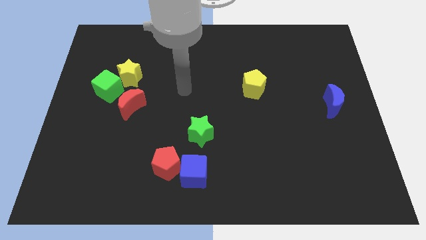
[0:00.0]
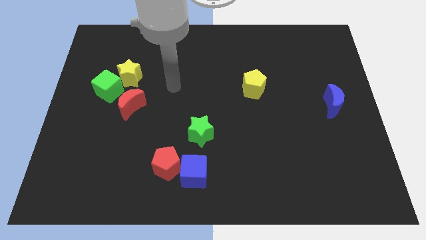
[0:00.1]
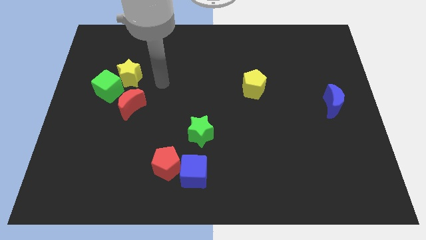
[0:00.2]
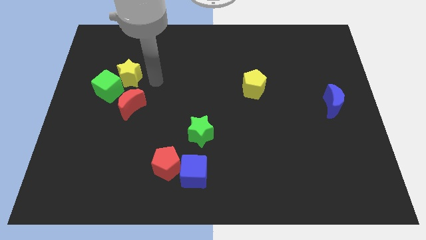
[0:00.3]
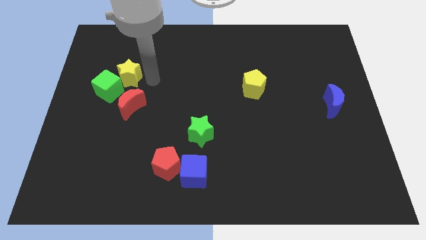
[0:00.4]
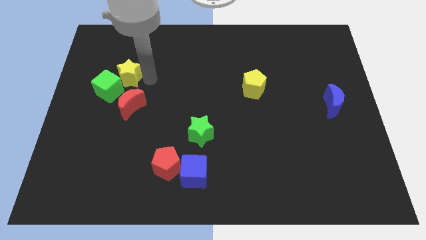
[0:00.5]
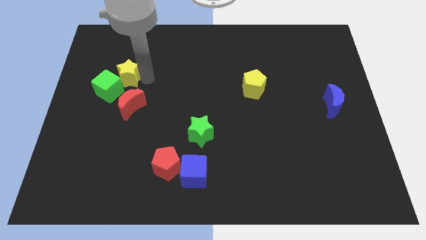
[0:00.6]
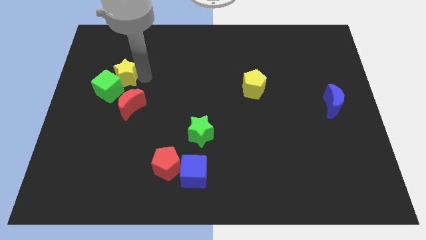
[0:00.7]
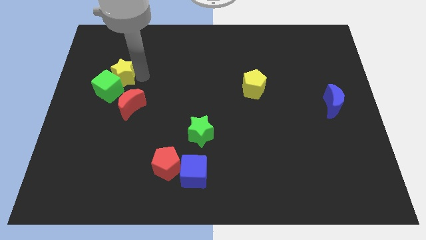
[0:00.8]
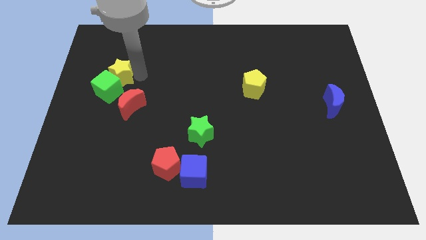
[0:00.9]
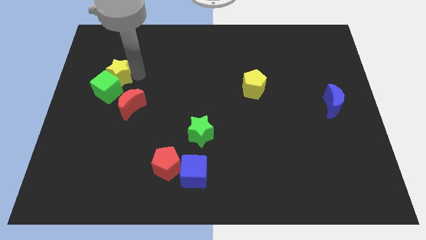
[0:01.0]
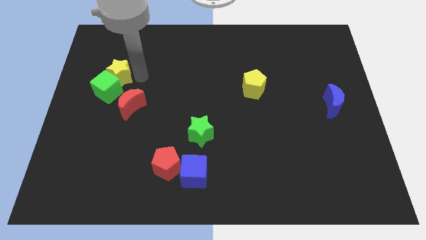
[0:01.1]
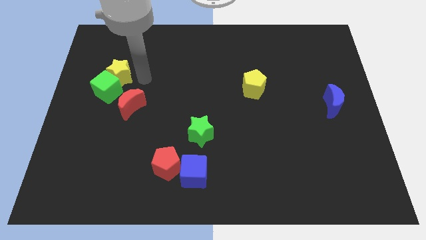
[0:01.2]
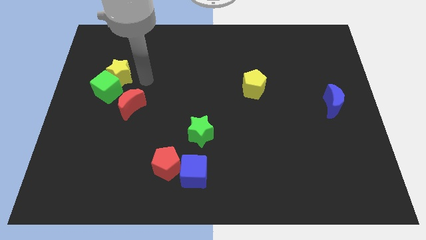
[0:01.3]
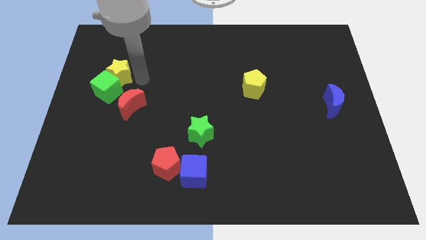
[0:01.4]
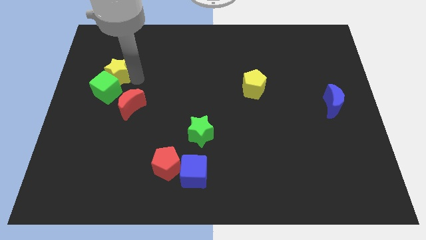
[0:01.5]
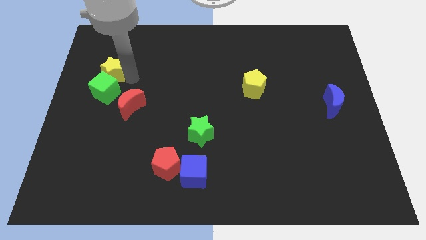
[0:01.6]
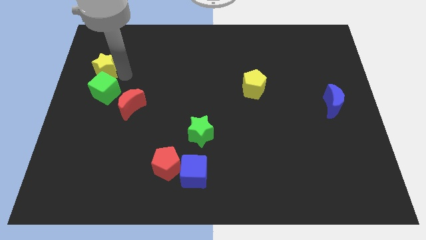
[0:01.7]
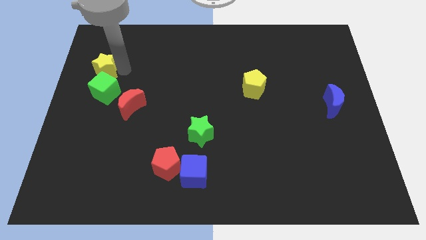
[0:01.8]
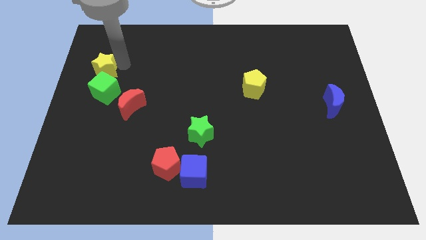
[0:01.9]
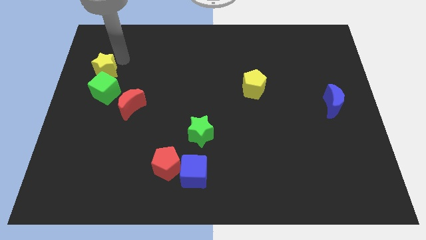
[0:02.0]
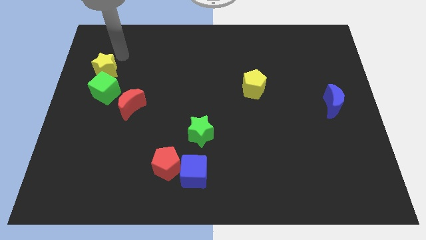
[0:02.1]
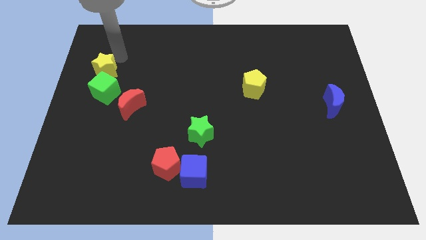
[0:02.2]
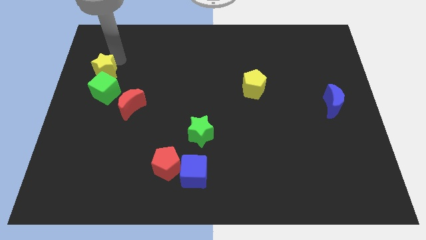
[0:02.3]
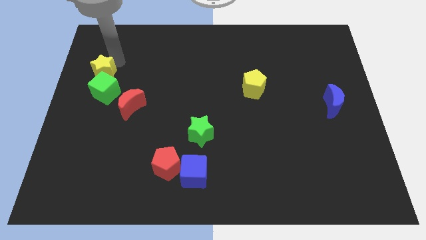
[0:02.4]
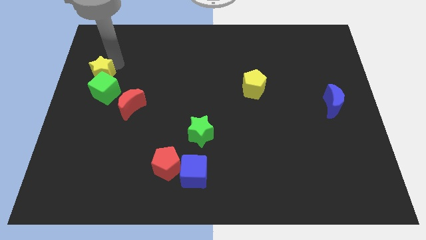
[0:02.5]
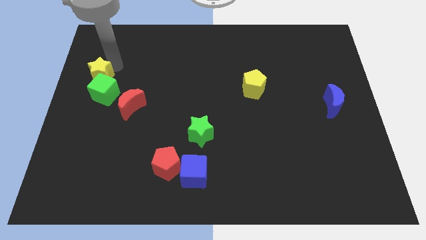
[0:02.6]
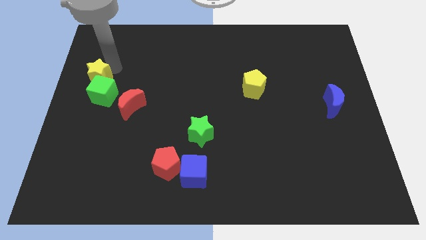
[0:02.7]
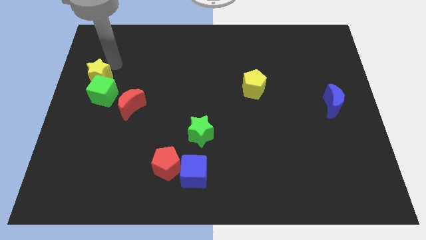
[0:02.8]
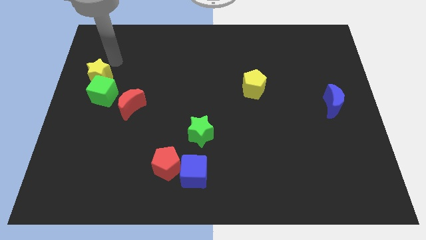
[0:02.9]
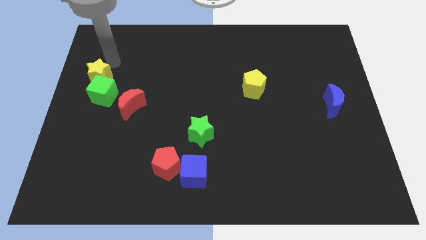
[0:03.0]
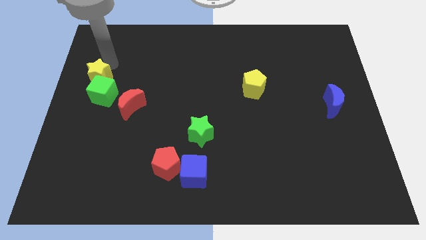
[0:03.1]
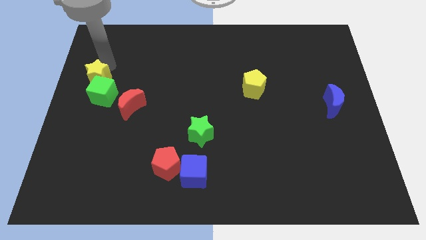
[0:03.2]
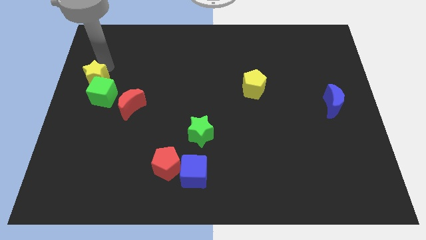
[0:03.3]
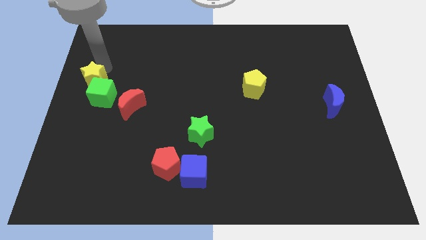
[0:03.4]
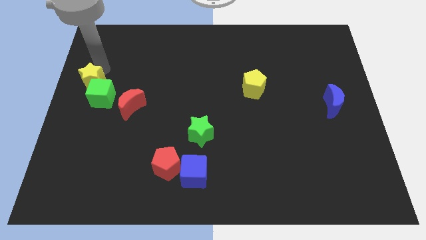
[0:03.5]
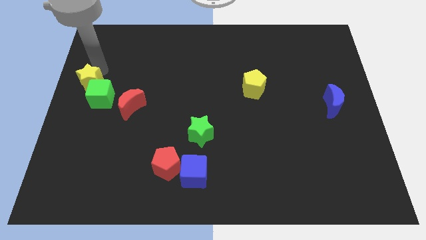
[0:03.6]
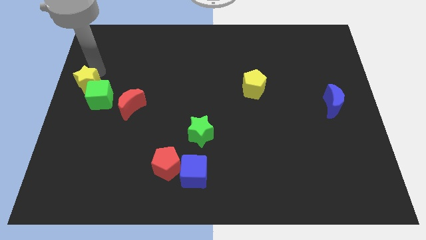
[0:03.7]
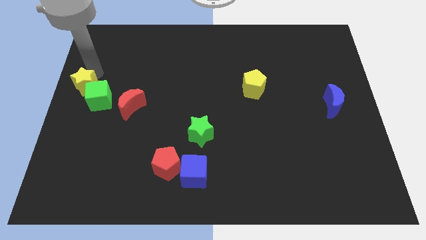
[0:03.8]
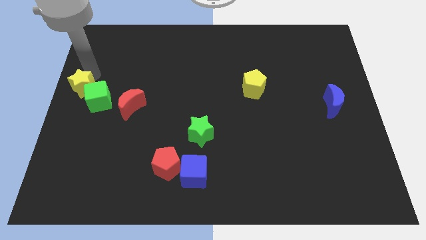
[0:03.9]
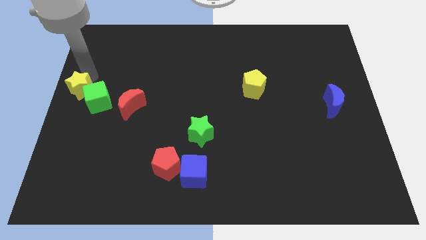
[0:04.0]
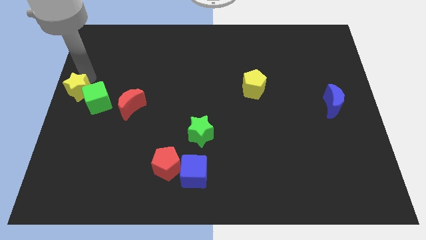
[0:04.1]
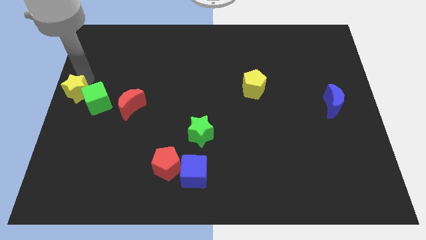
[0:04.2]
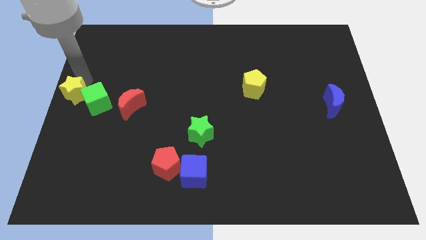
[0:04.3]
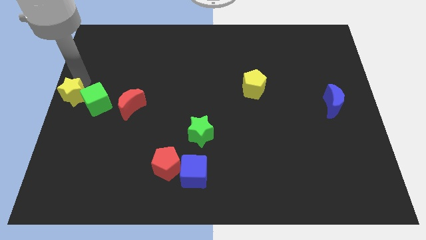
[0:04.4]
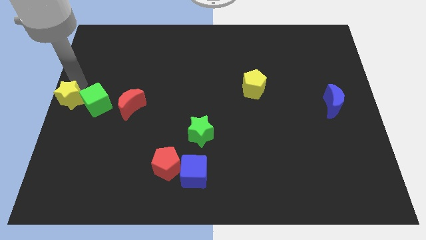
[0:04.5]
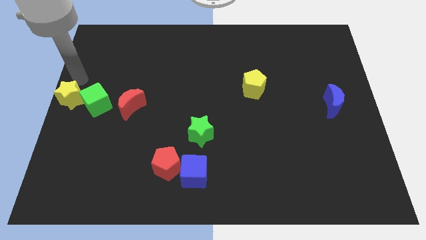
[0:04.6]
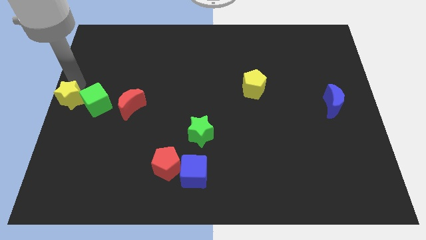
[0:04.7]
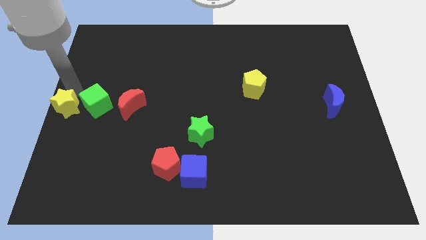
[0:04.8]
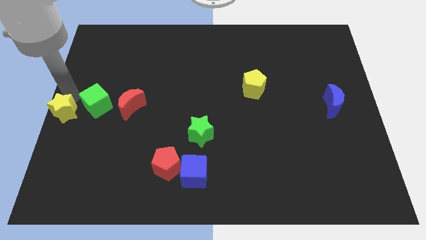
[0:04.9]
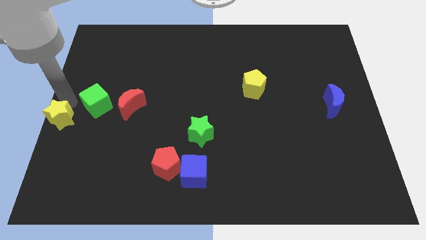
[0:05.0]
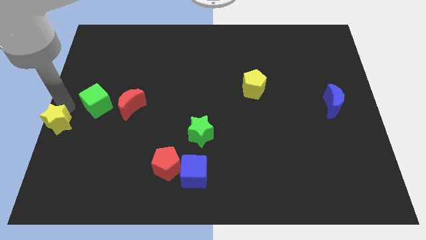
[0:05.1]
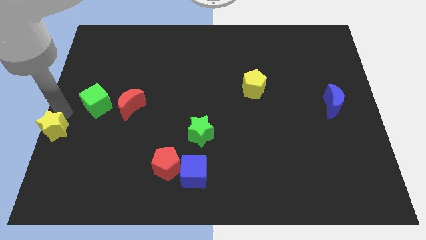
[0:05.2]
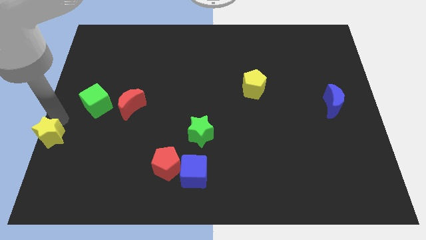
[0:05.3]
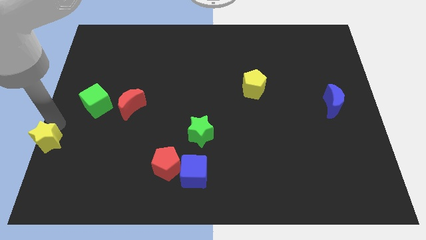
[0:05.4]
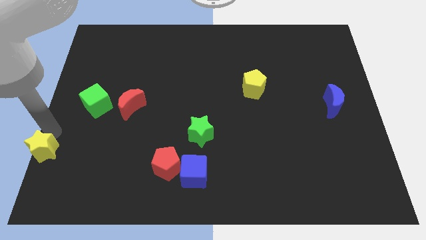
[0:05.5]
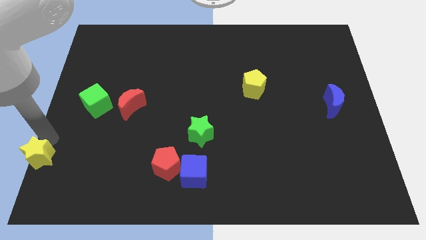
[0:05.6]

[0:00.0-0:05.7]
move the yellow star to the bottom left of the board

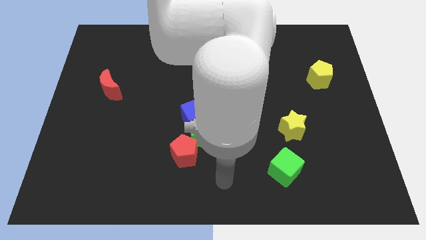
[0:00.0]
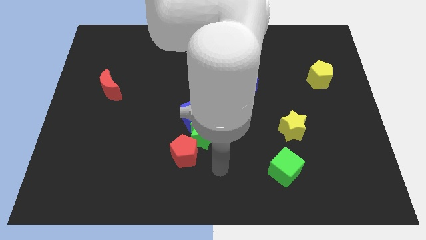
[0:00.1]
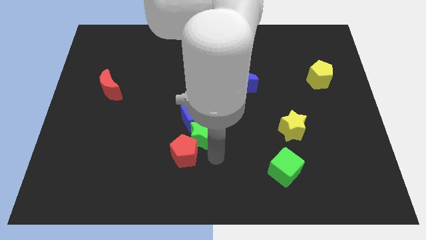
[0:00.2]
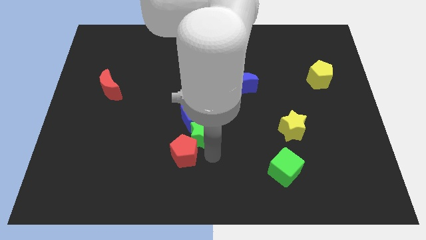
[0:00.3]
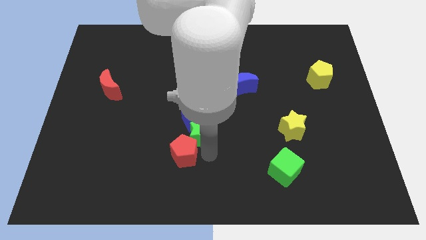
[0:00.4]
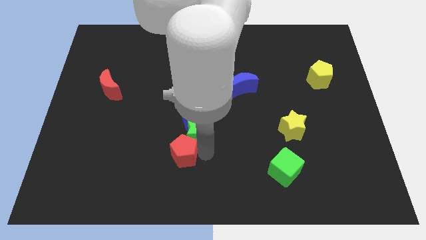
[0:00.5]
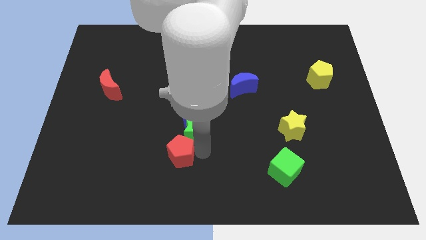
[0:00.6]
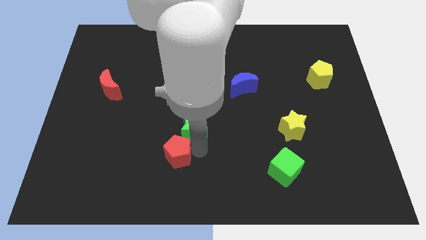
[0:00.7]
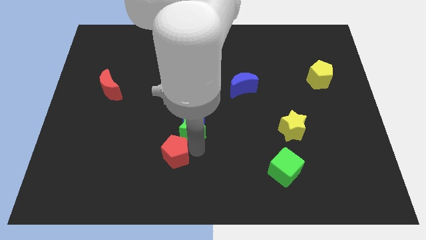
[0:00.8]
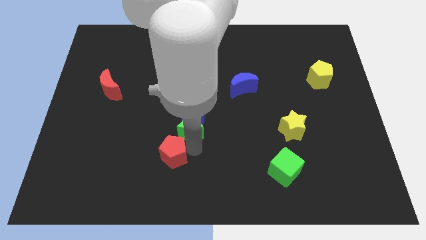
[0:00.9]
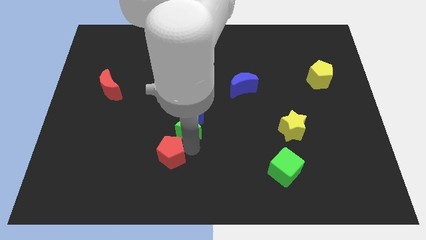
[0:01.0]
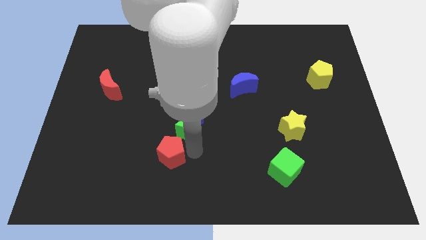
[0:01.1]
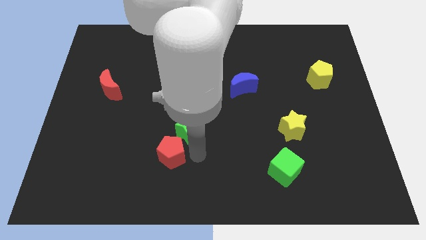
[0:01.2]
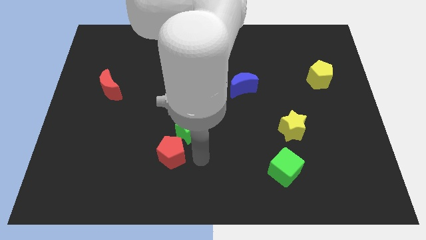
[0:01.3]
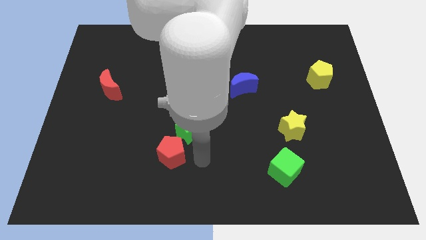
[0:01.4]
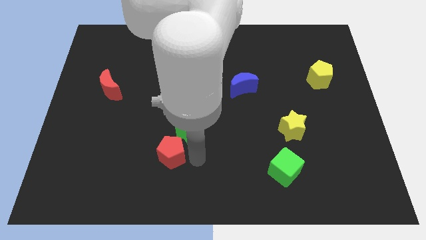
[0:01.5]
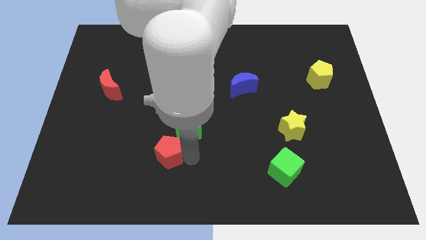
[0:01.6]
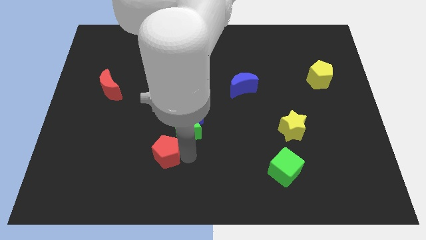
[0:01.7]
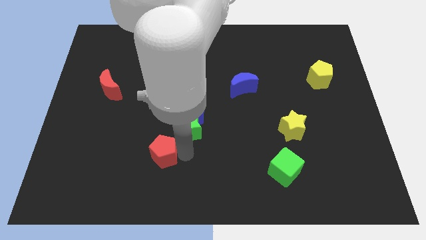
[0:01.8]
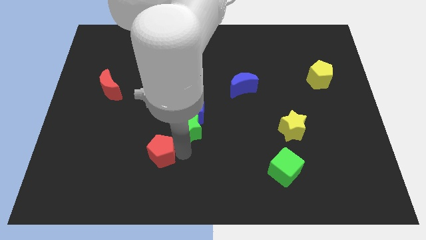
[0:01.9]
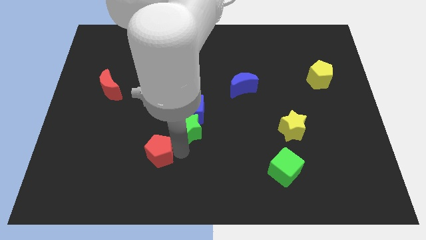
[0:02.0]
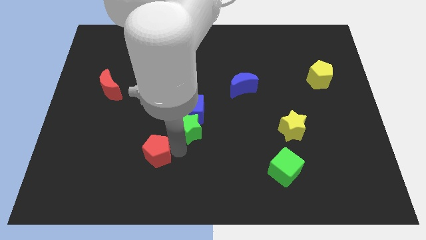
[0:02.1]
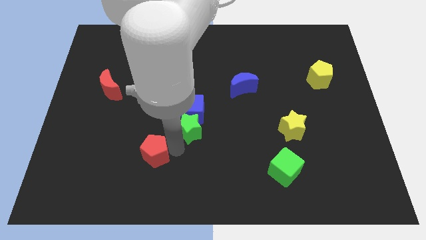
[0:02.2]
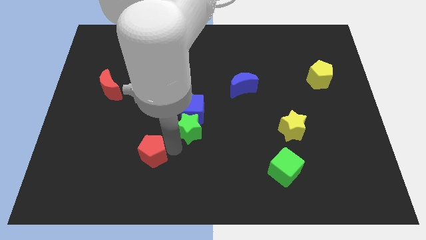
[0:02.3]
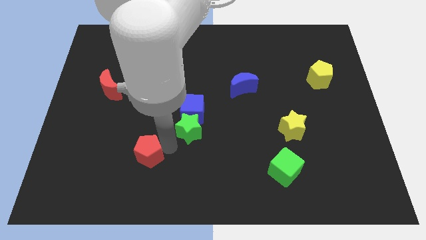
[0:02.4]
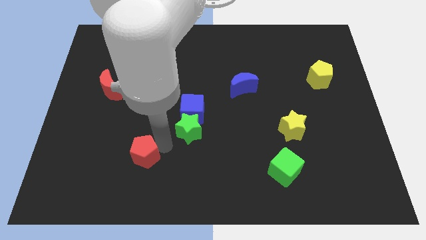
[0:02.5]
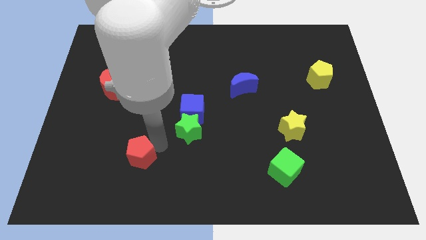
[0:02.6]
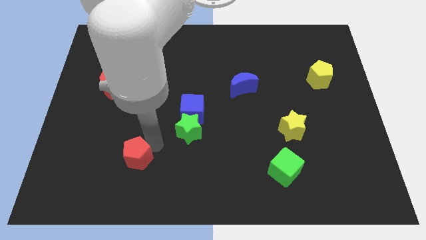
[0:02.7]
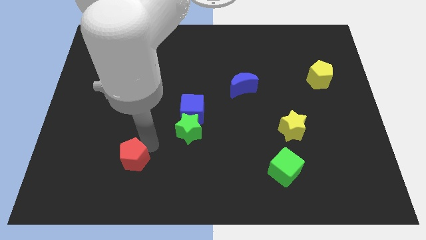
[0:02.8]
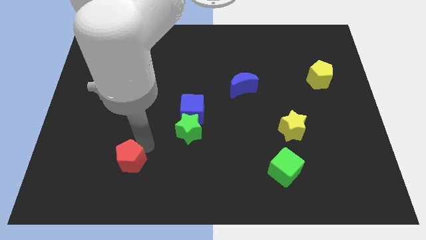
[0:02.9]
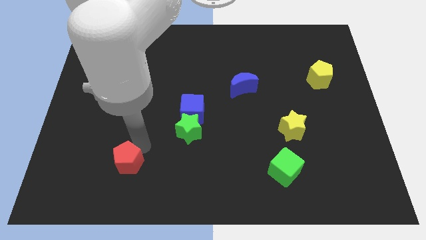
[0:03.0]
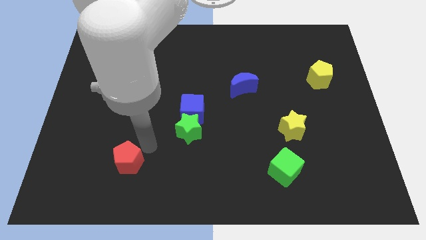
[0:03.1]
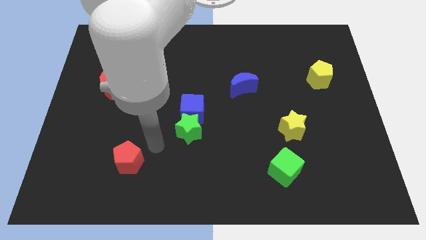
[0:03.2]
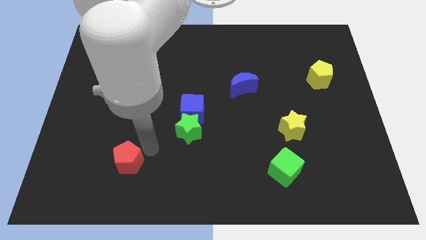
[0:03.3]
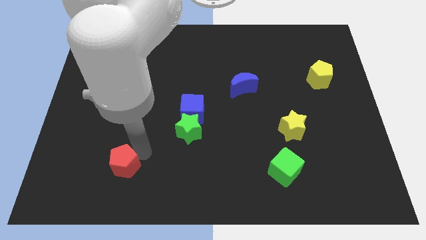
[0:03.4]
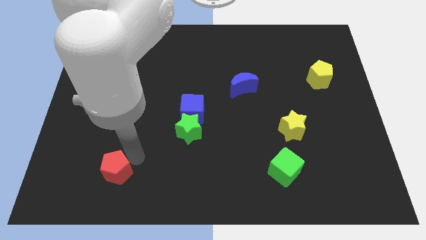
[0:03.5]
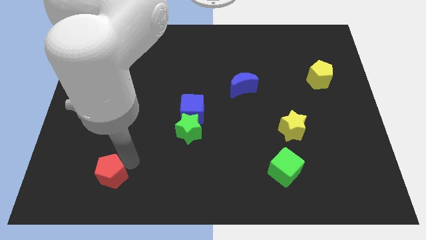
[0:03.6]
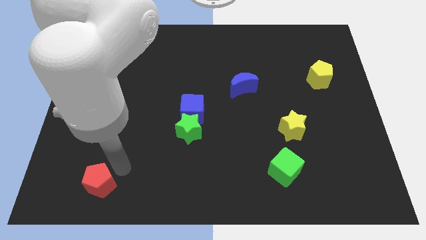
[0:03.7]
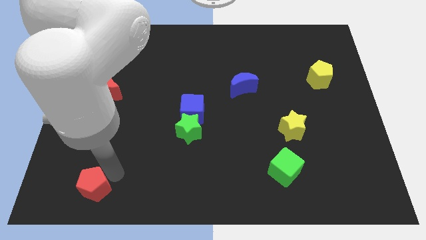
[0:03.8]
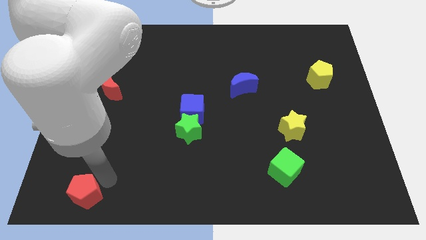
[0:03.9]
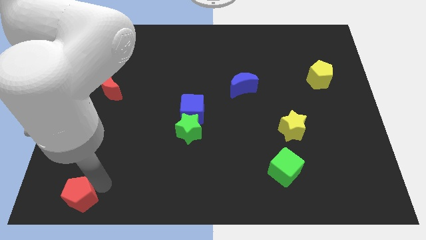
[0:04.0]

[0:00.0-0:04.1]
move the red pentagon to the bottom left
